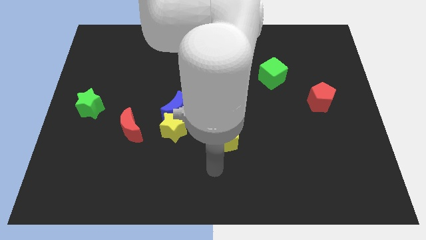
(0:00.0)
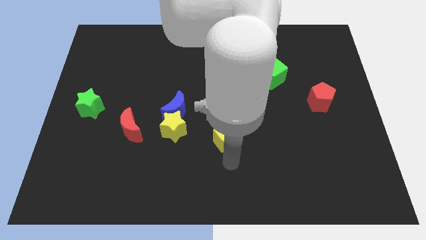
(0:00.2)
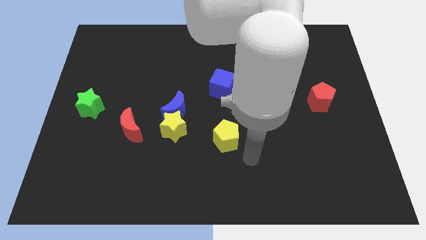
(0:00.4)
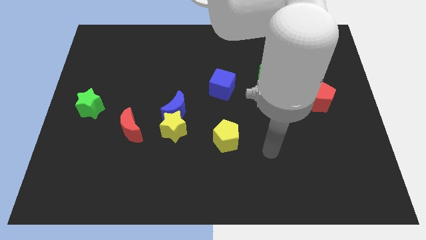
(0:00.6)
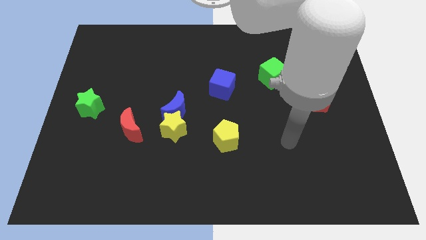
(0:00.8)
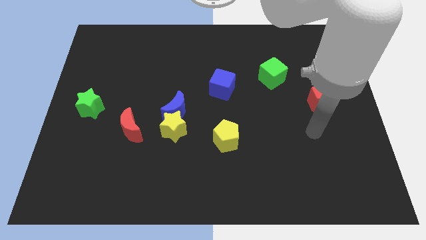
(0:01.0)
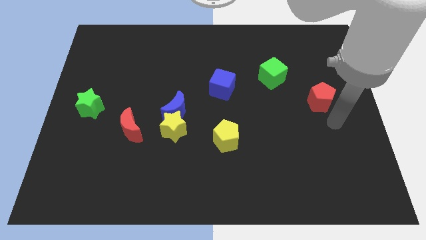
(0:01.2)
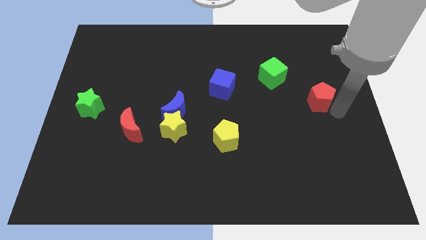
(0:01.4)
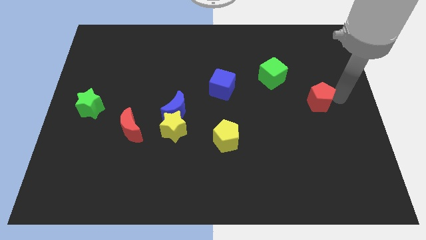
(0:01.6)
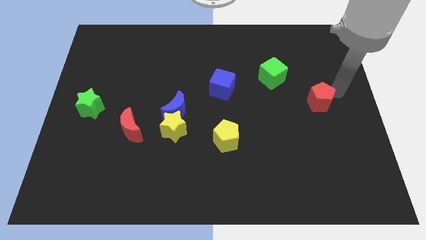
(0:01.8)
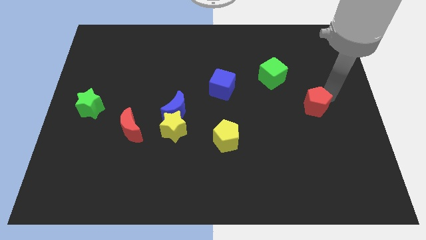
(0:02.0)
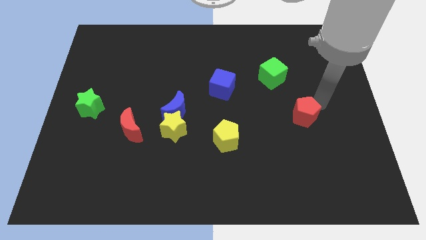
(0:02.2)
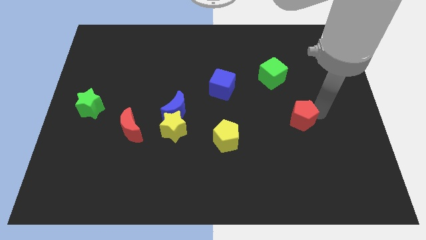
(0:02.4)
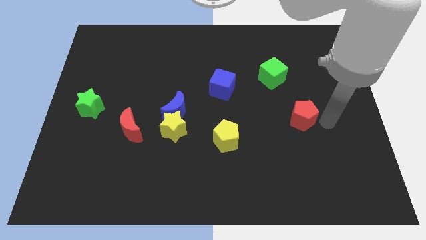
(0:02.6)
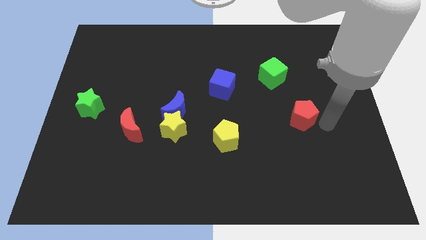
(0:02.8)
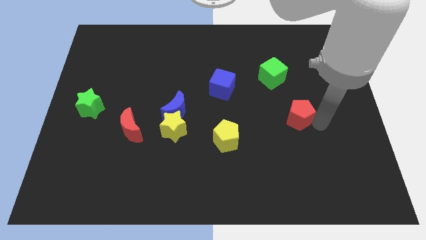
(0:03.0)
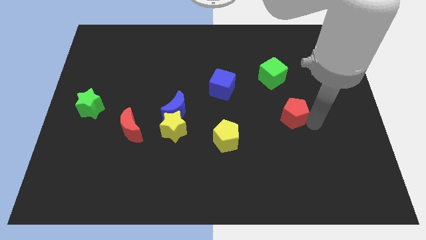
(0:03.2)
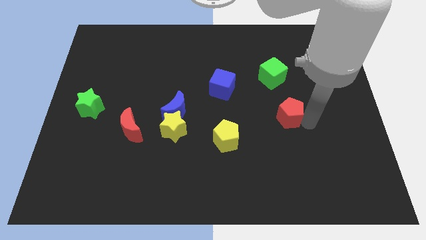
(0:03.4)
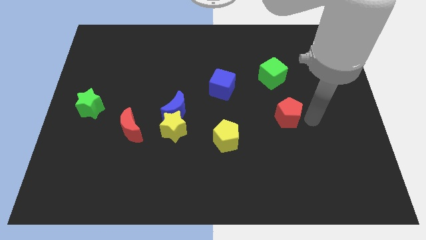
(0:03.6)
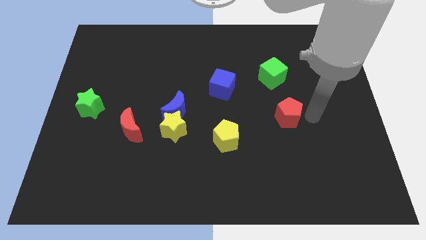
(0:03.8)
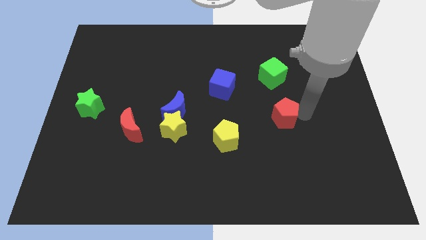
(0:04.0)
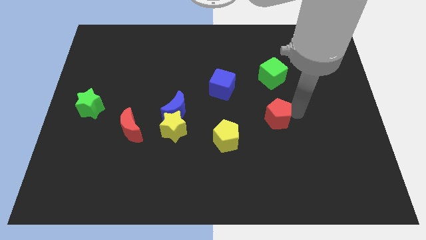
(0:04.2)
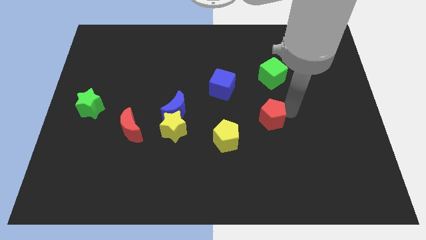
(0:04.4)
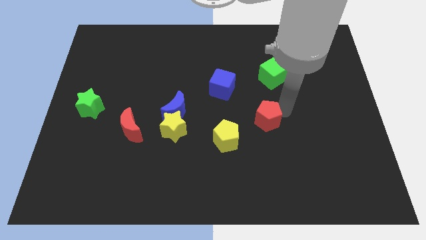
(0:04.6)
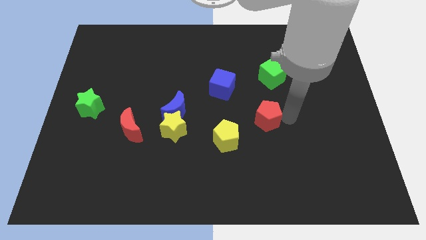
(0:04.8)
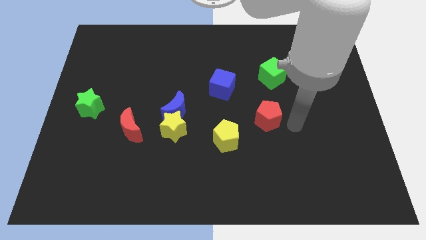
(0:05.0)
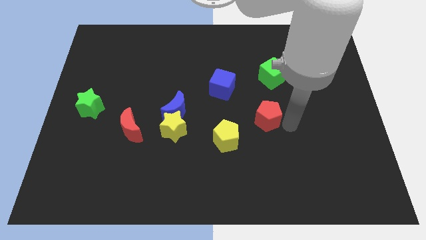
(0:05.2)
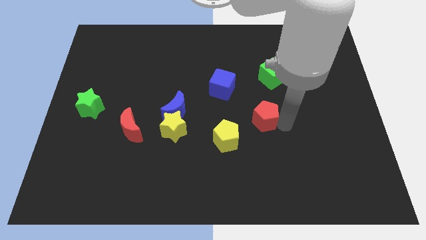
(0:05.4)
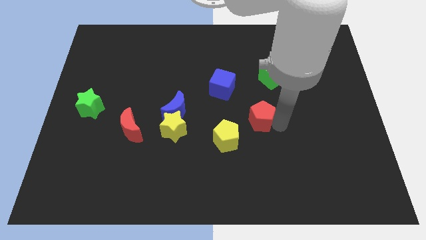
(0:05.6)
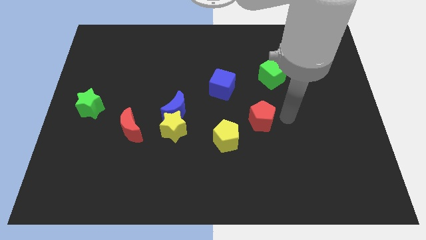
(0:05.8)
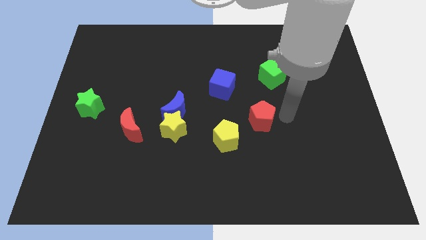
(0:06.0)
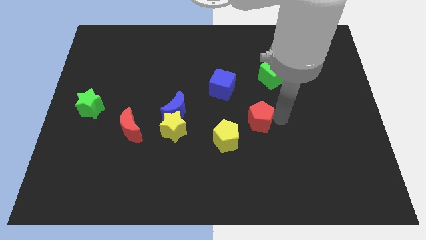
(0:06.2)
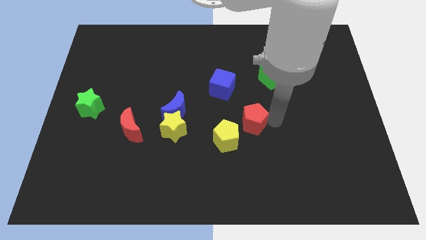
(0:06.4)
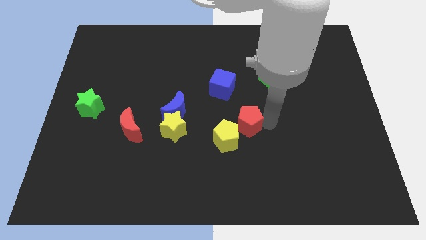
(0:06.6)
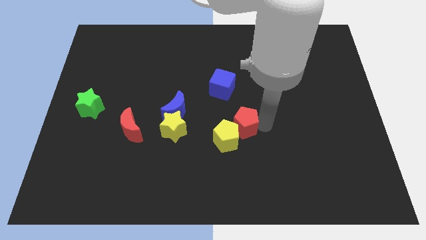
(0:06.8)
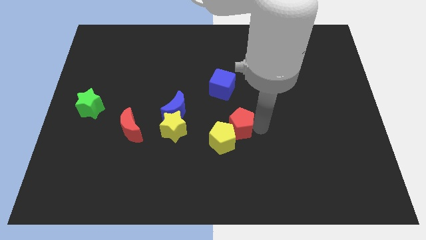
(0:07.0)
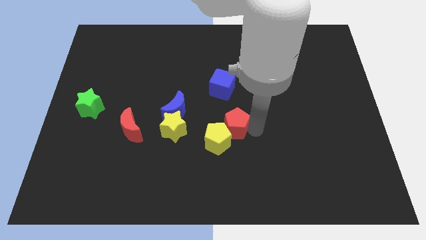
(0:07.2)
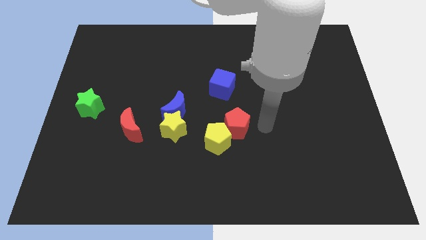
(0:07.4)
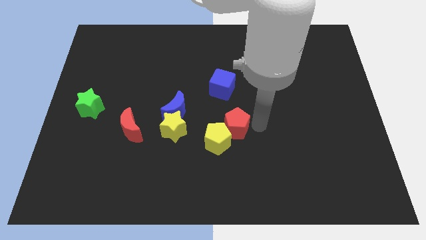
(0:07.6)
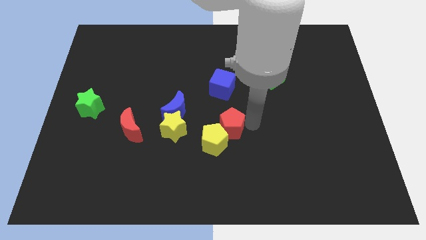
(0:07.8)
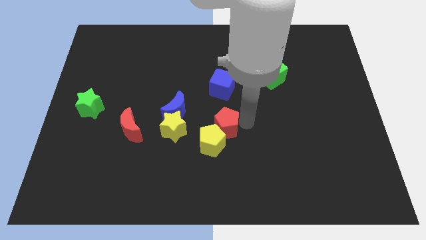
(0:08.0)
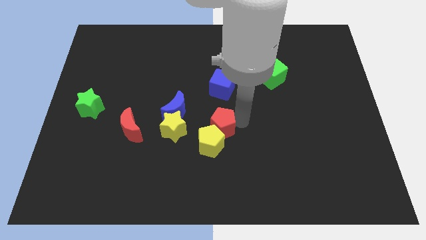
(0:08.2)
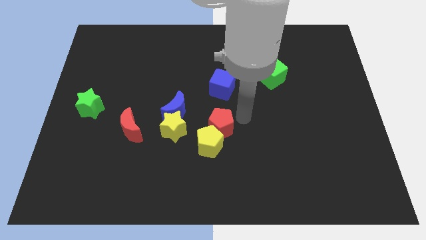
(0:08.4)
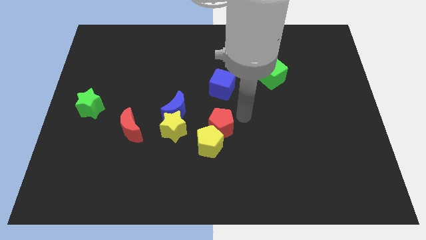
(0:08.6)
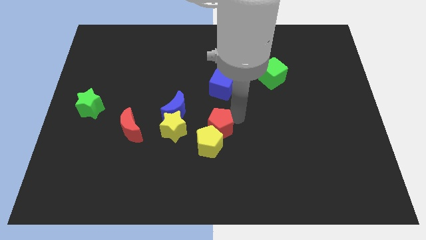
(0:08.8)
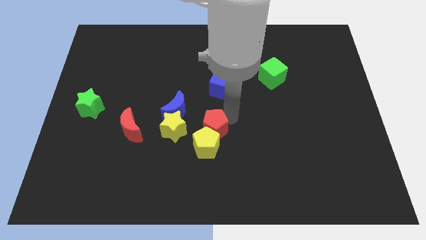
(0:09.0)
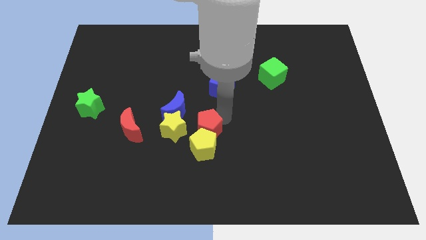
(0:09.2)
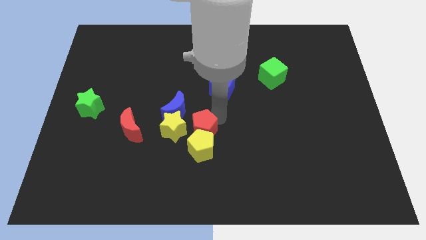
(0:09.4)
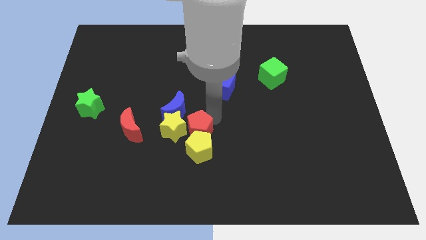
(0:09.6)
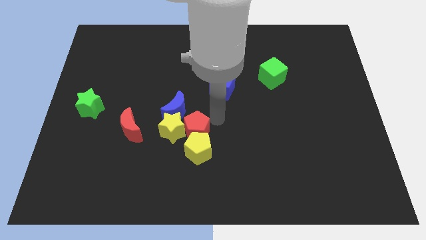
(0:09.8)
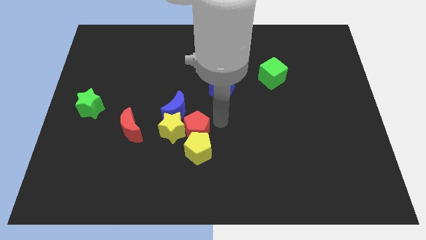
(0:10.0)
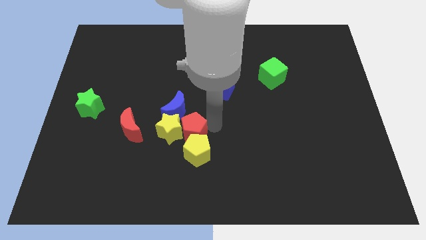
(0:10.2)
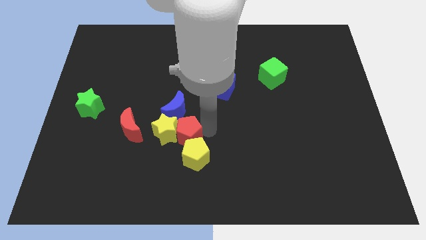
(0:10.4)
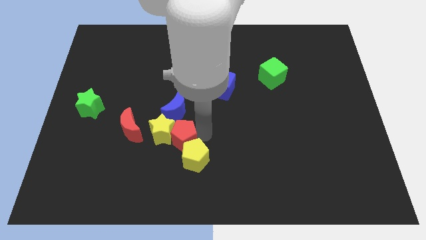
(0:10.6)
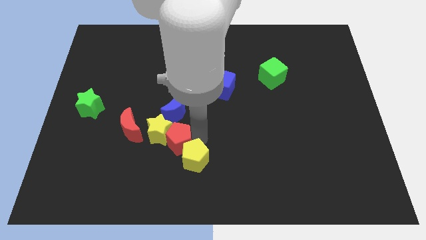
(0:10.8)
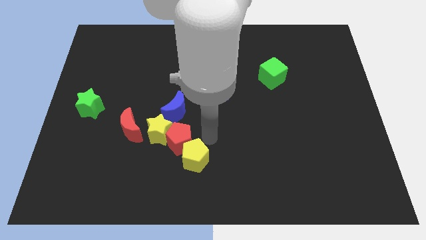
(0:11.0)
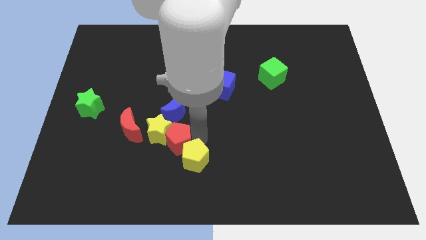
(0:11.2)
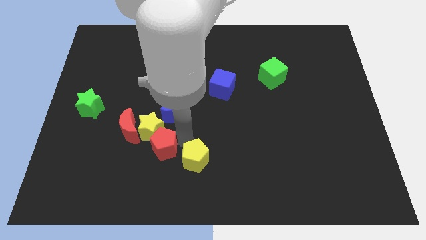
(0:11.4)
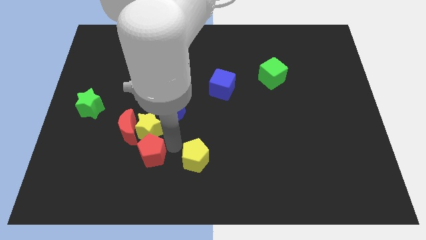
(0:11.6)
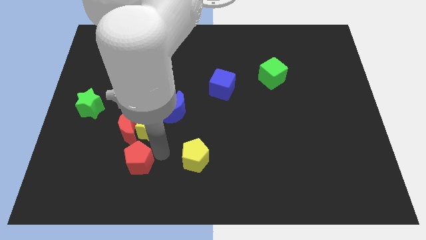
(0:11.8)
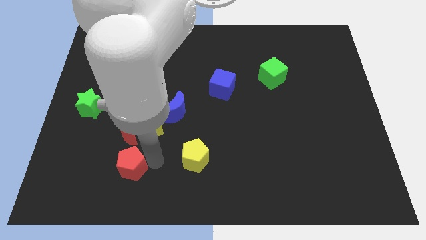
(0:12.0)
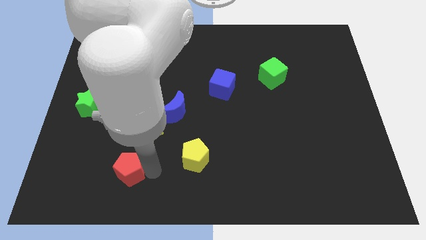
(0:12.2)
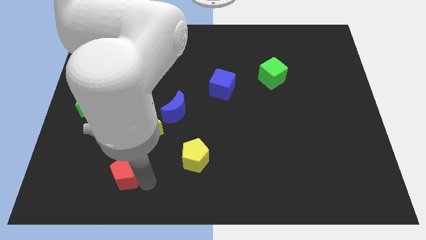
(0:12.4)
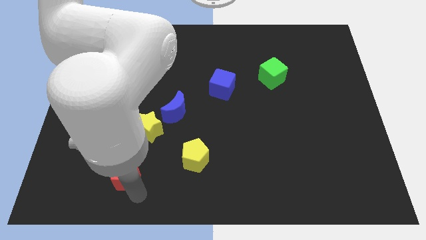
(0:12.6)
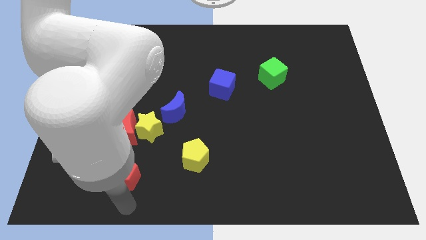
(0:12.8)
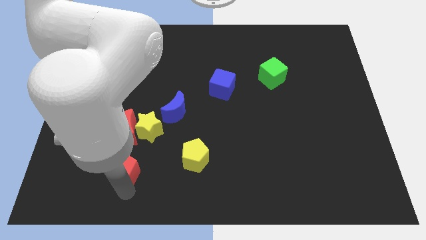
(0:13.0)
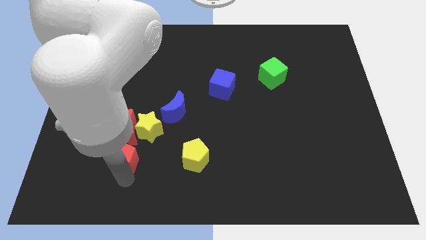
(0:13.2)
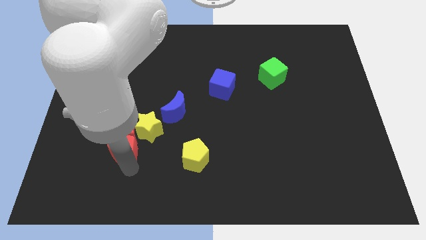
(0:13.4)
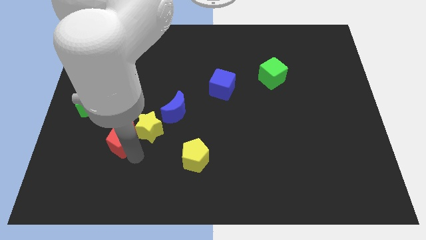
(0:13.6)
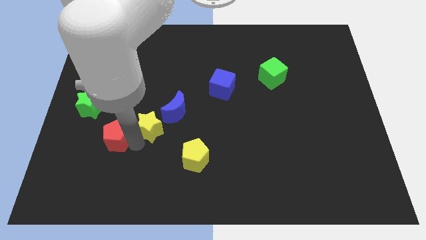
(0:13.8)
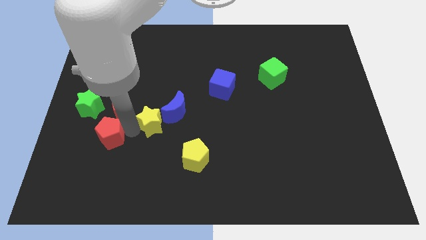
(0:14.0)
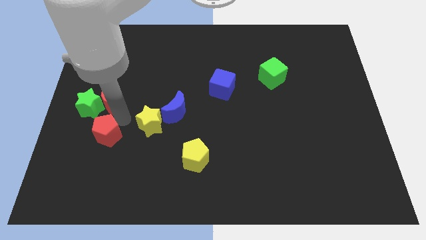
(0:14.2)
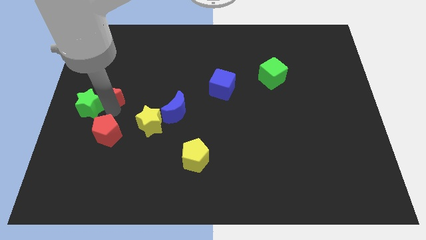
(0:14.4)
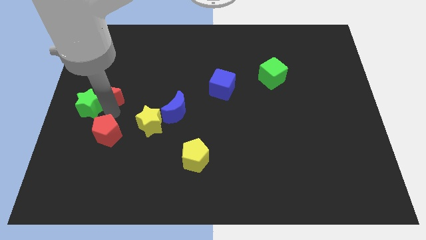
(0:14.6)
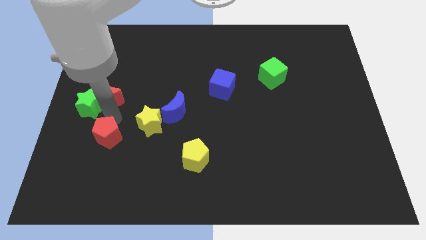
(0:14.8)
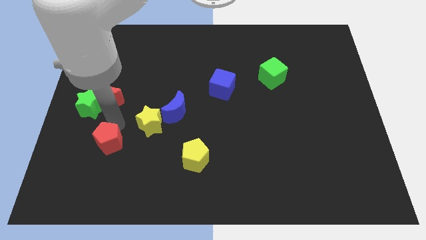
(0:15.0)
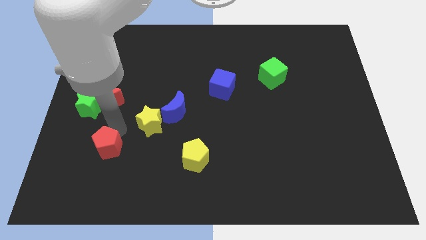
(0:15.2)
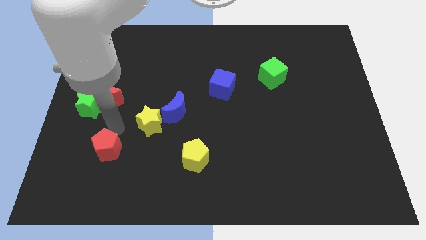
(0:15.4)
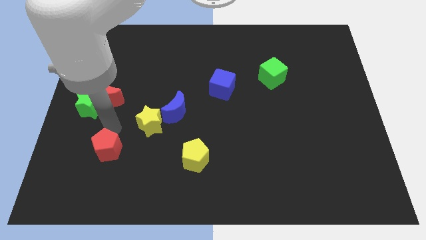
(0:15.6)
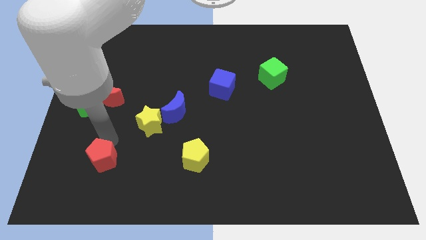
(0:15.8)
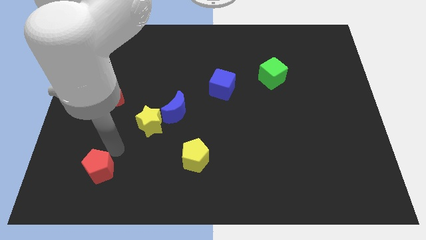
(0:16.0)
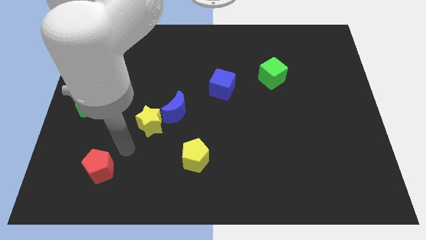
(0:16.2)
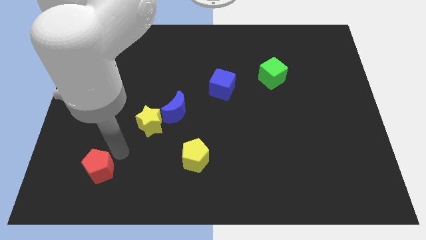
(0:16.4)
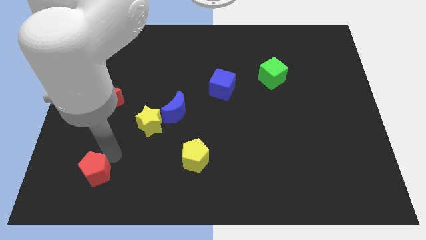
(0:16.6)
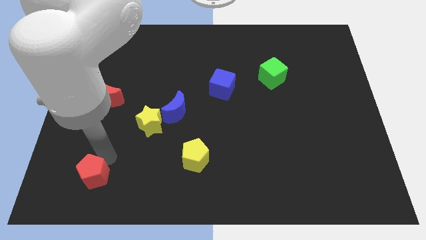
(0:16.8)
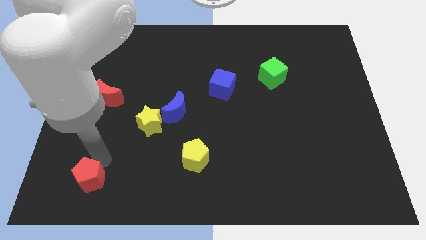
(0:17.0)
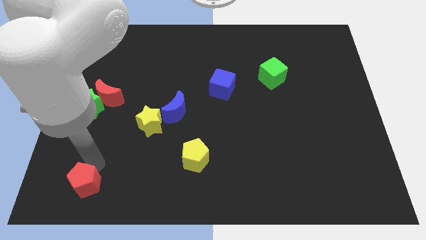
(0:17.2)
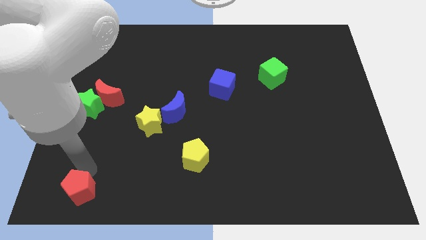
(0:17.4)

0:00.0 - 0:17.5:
slide the red pentagon to the bottom left of the board
